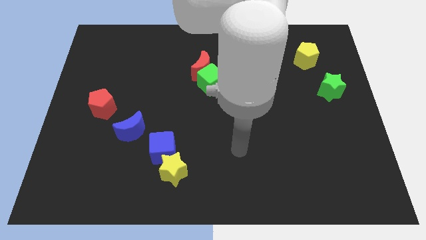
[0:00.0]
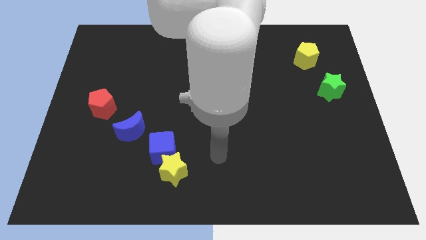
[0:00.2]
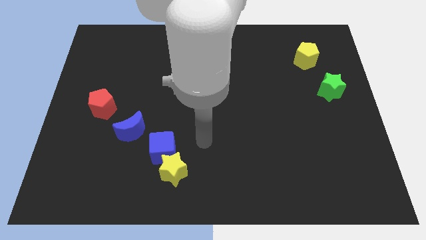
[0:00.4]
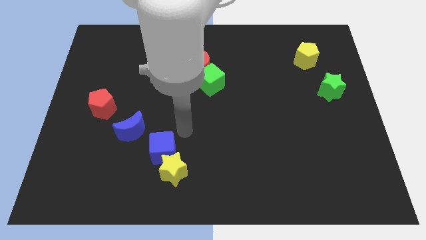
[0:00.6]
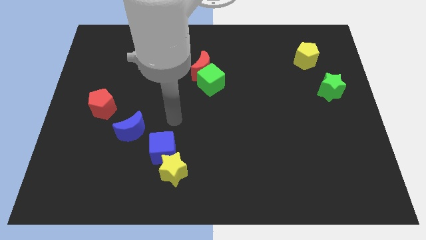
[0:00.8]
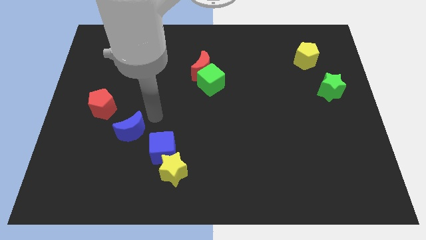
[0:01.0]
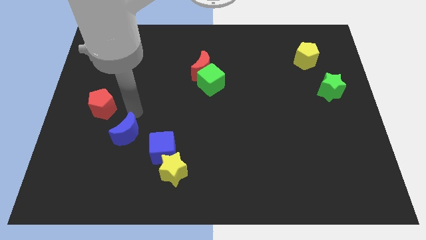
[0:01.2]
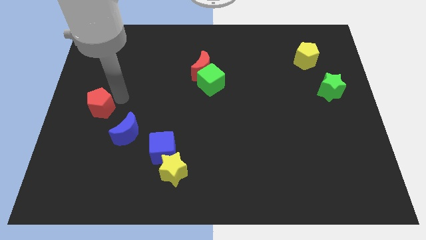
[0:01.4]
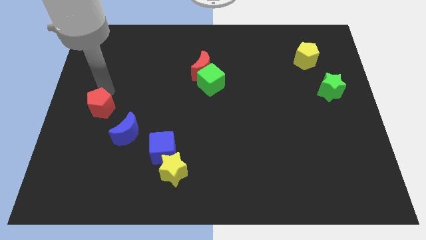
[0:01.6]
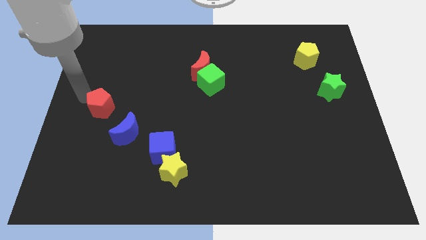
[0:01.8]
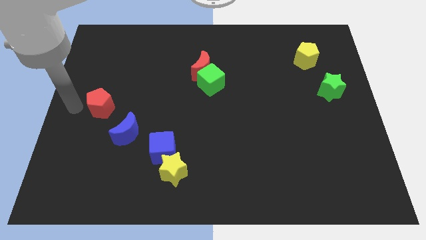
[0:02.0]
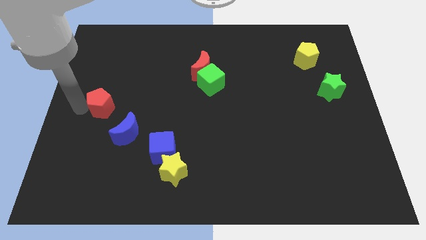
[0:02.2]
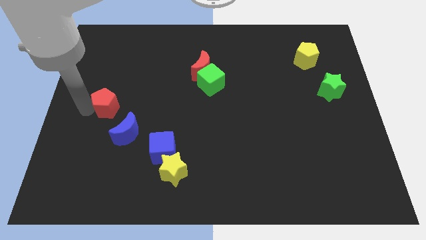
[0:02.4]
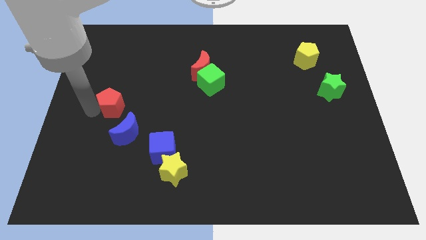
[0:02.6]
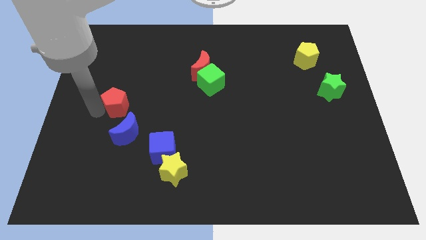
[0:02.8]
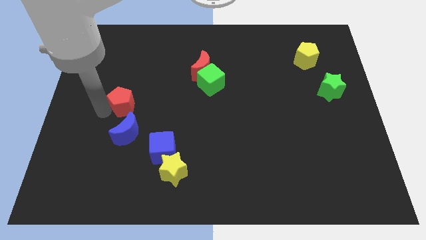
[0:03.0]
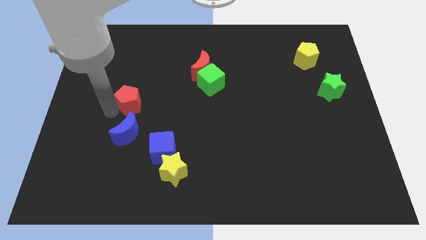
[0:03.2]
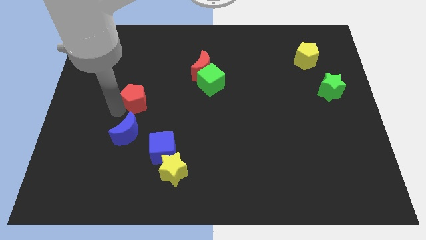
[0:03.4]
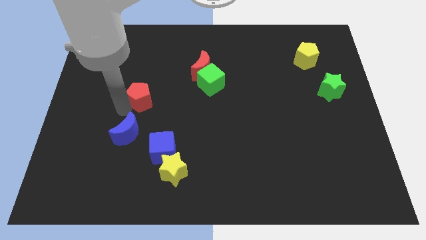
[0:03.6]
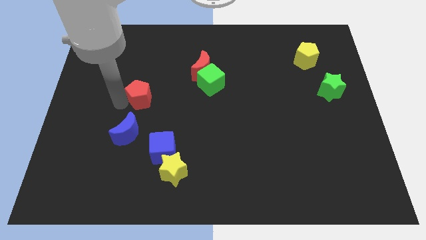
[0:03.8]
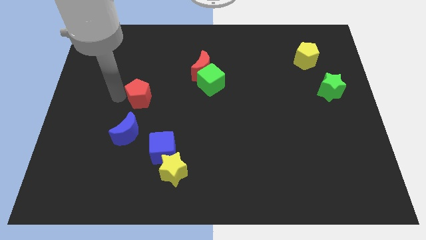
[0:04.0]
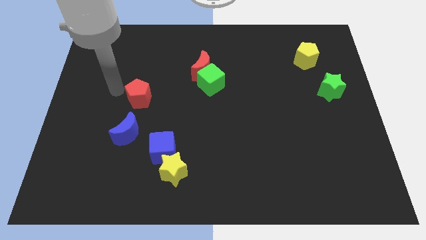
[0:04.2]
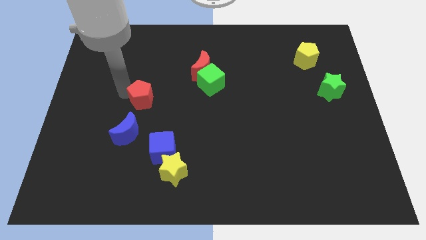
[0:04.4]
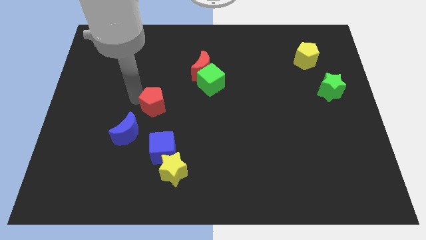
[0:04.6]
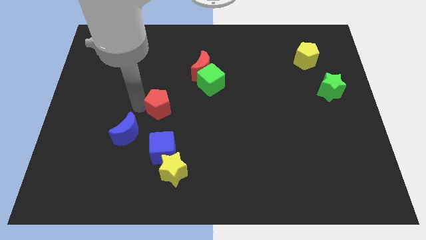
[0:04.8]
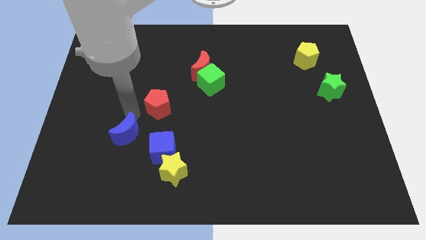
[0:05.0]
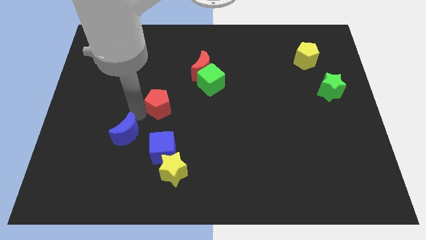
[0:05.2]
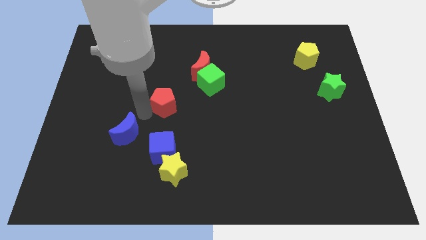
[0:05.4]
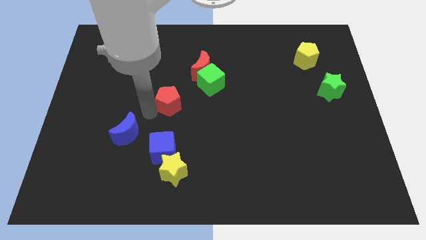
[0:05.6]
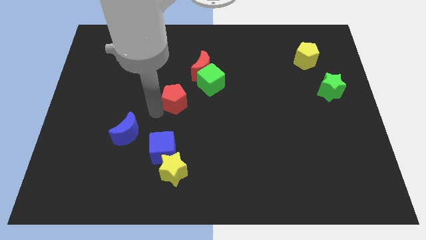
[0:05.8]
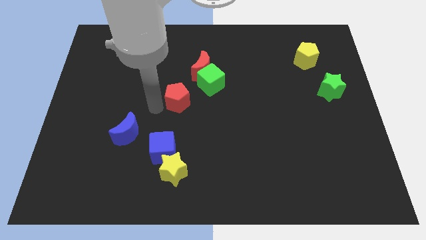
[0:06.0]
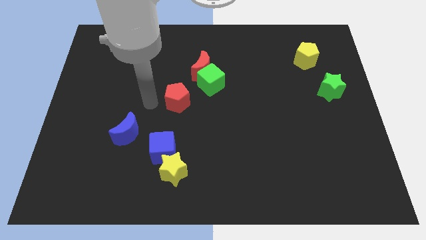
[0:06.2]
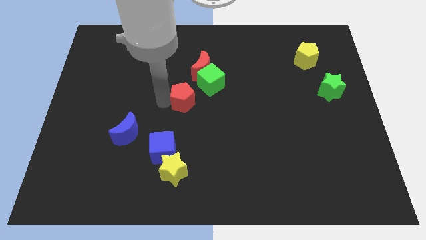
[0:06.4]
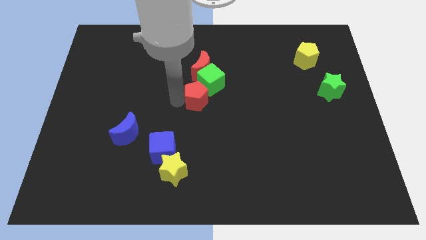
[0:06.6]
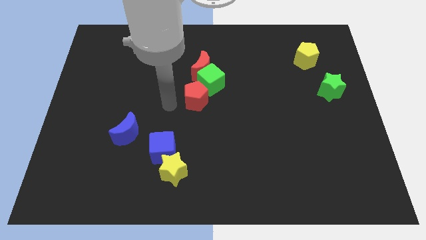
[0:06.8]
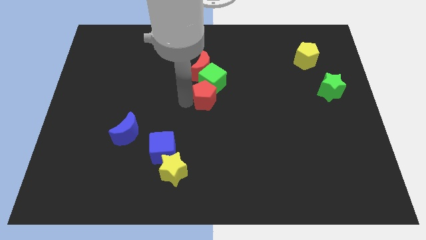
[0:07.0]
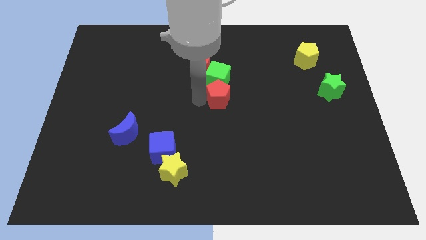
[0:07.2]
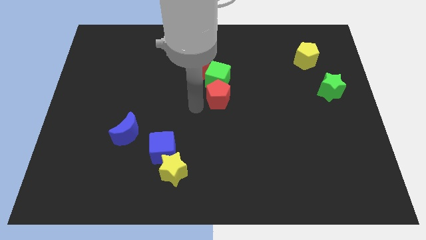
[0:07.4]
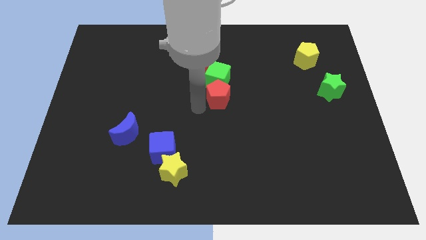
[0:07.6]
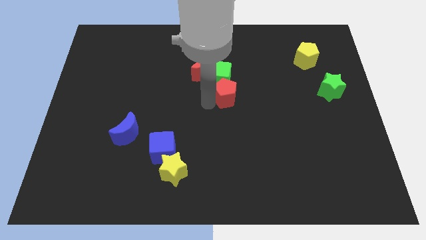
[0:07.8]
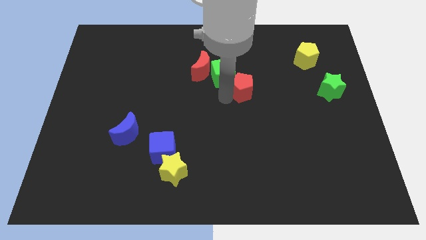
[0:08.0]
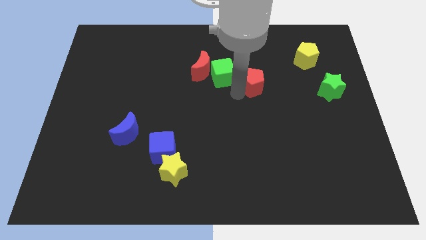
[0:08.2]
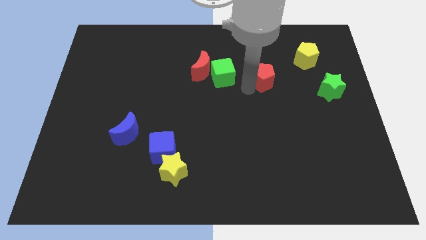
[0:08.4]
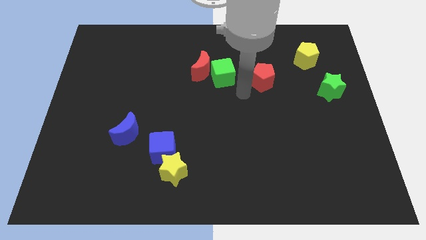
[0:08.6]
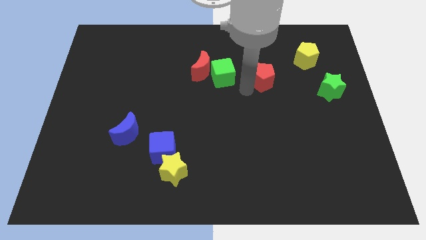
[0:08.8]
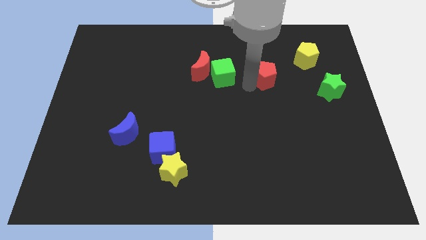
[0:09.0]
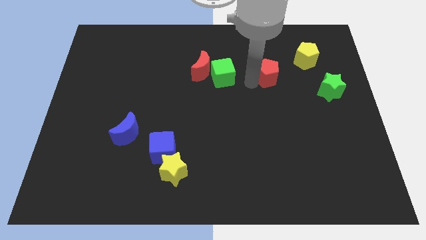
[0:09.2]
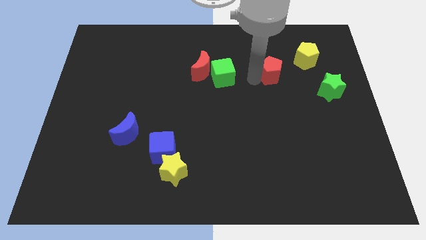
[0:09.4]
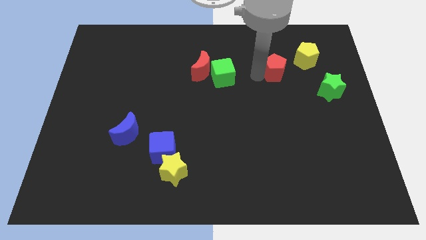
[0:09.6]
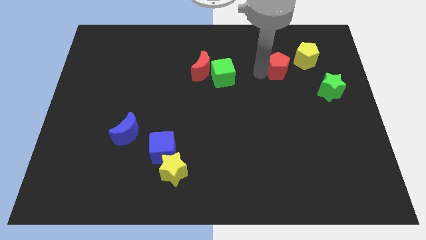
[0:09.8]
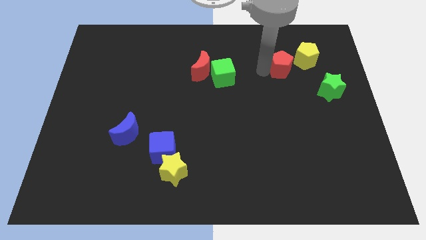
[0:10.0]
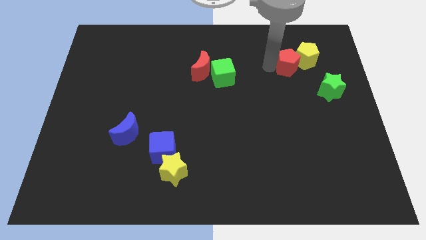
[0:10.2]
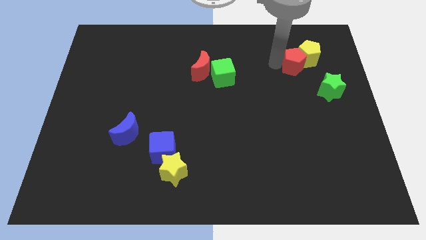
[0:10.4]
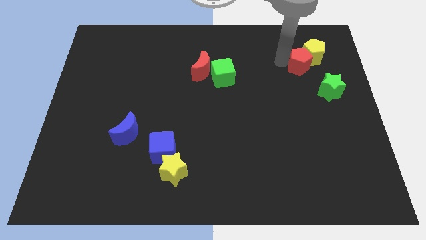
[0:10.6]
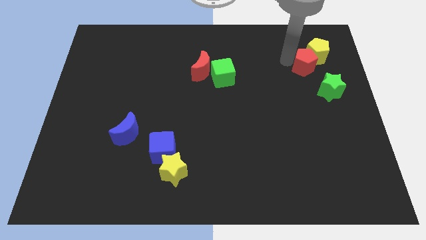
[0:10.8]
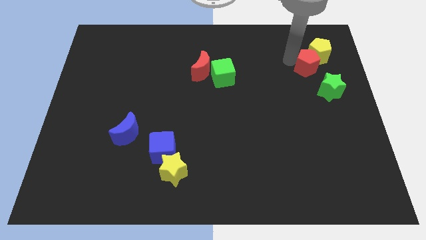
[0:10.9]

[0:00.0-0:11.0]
push the red pentagon to the top side of the green star
